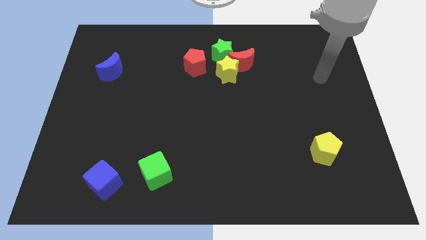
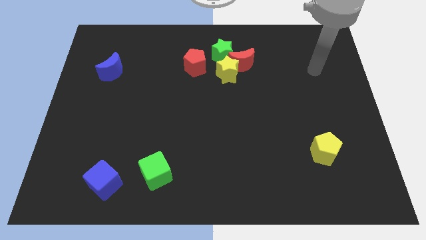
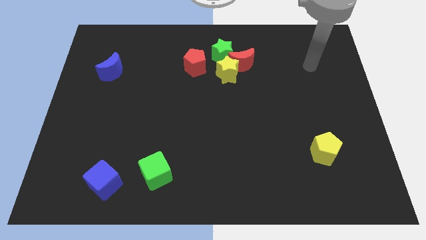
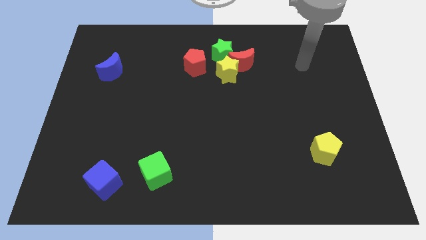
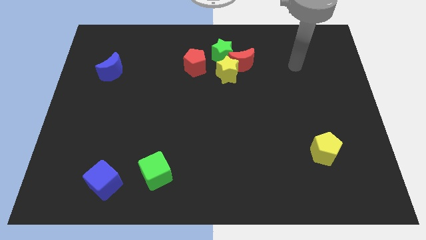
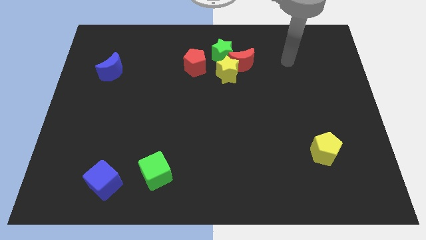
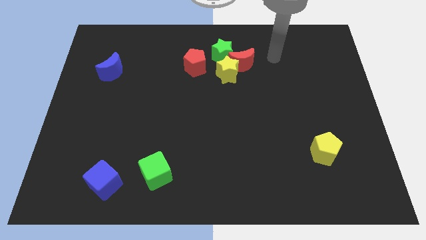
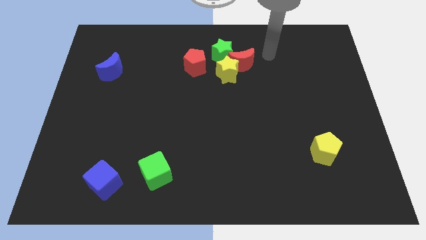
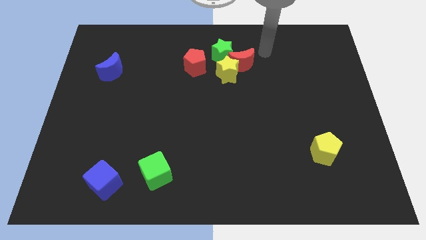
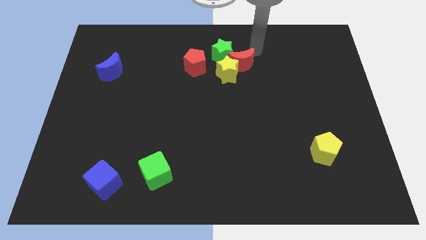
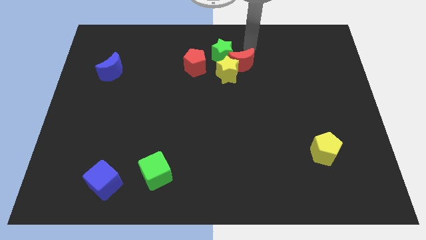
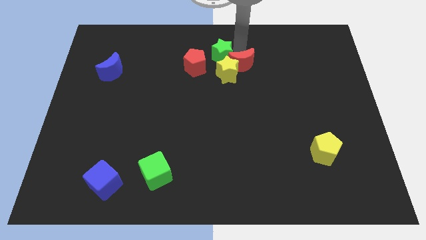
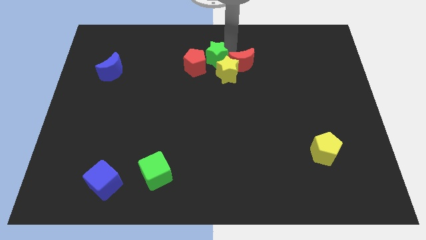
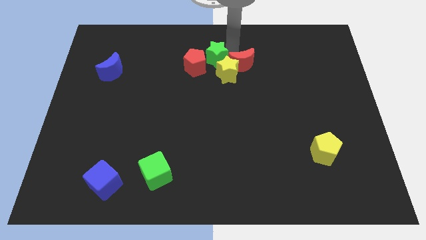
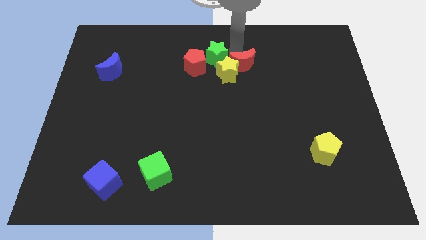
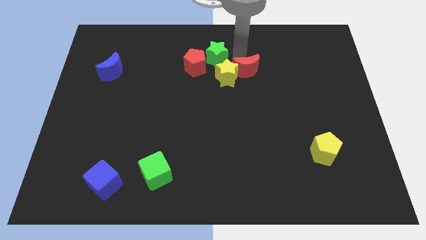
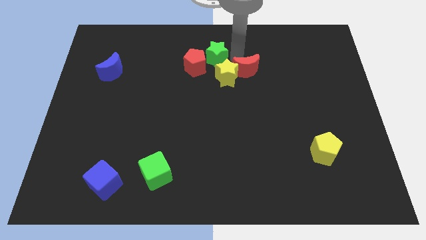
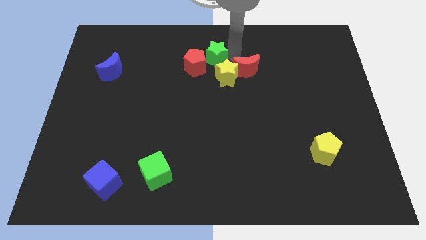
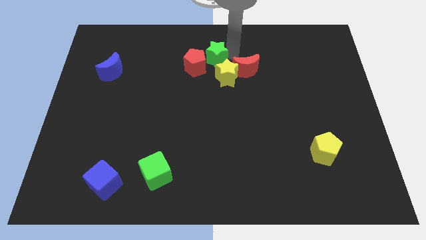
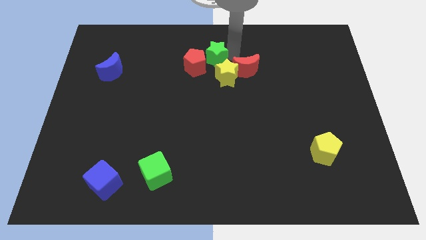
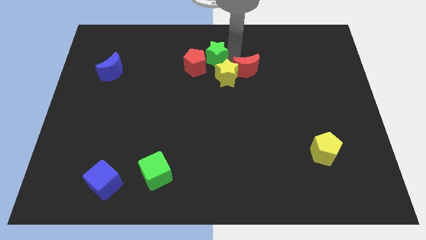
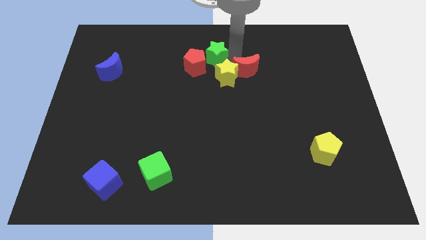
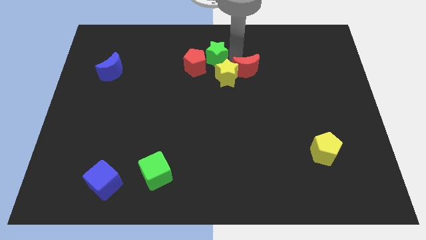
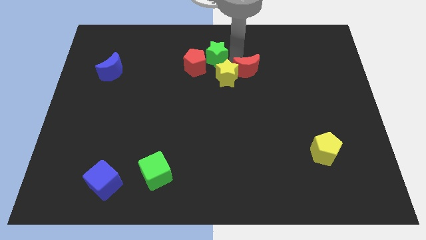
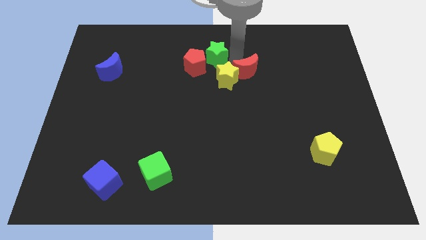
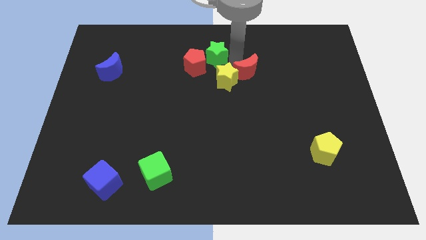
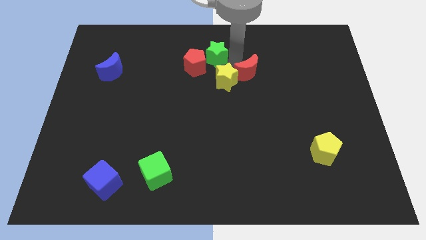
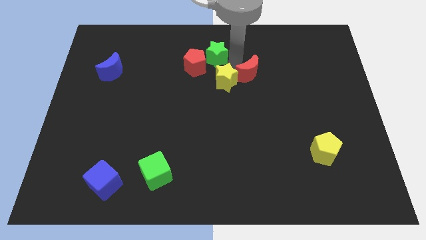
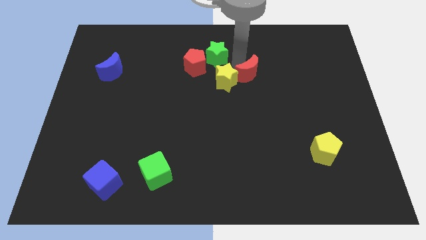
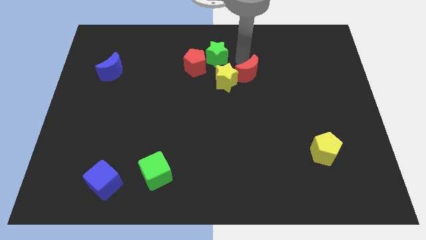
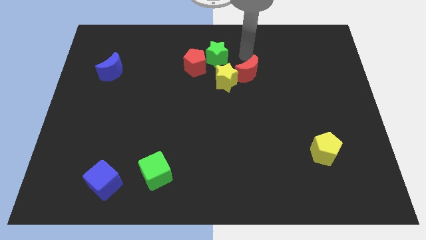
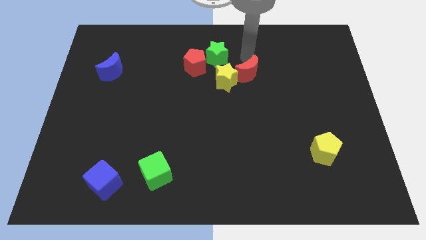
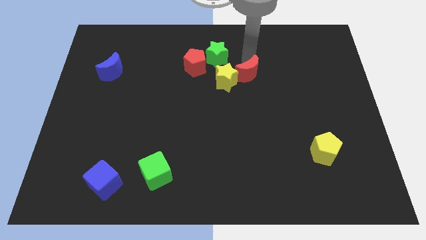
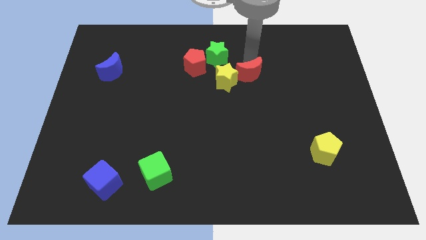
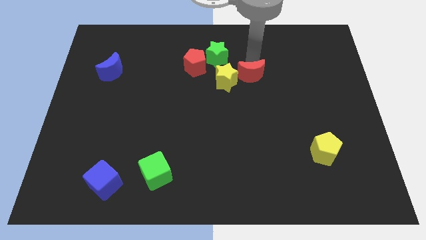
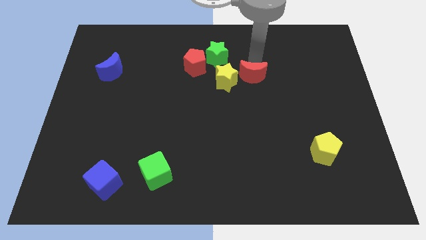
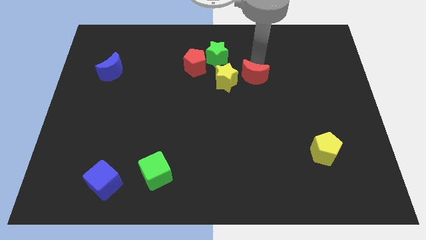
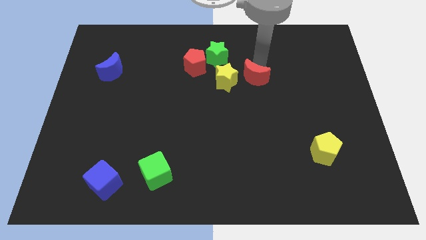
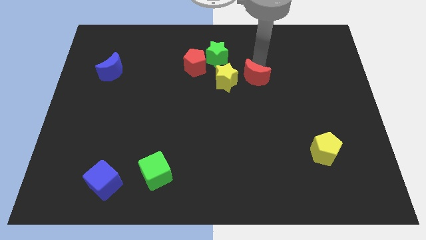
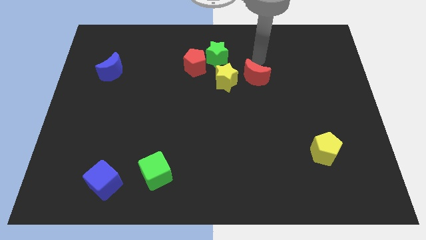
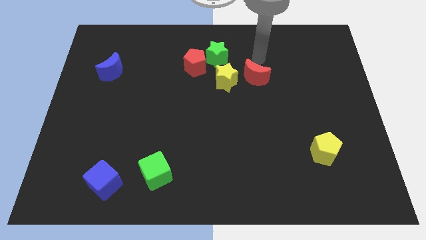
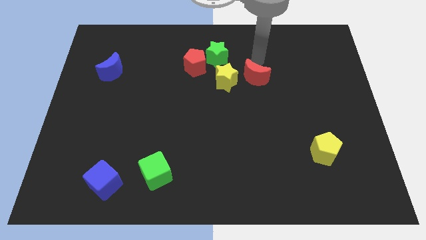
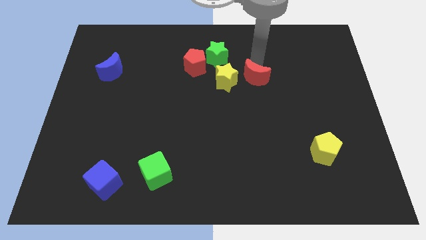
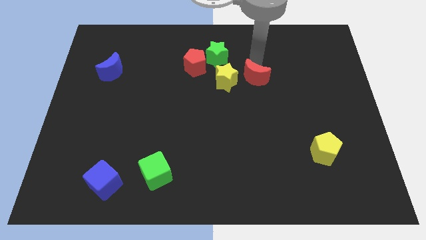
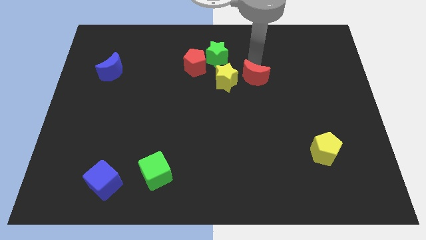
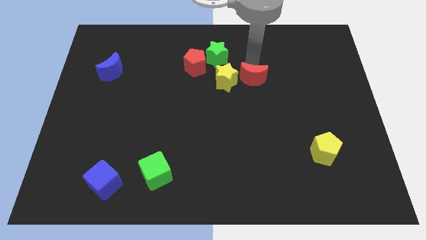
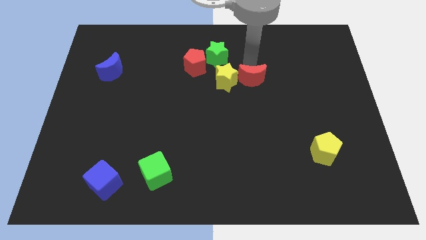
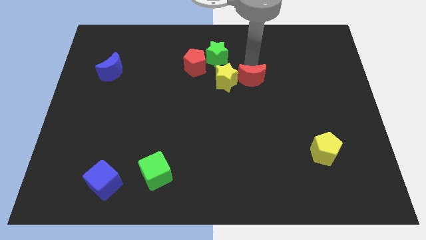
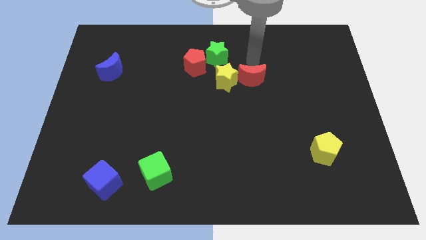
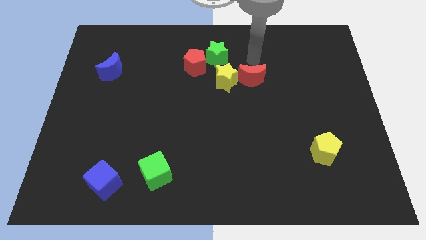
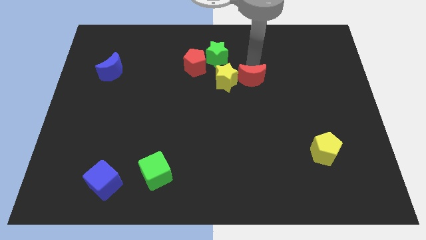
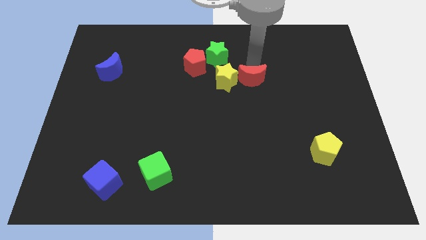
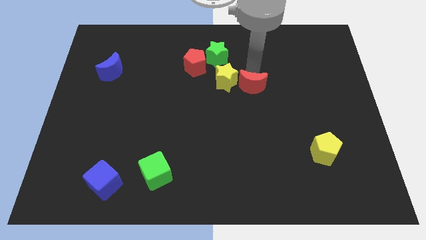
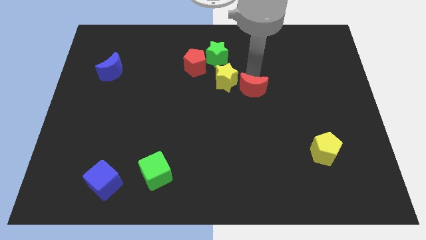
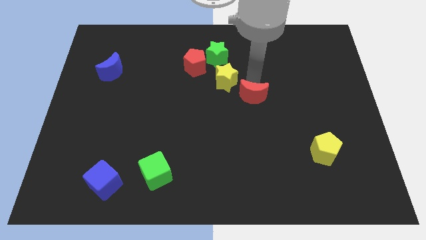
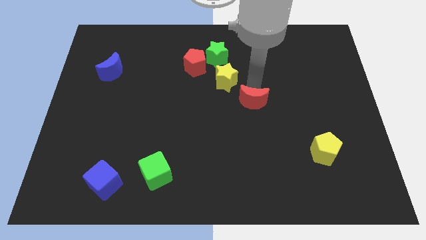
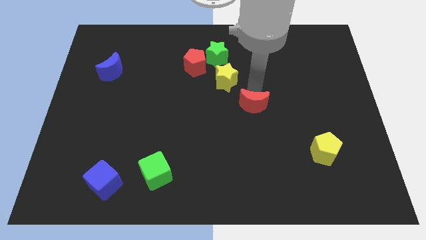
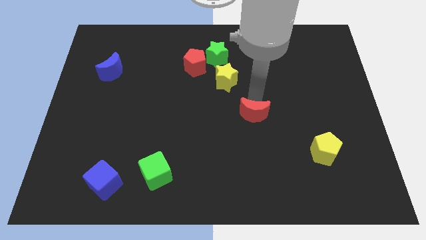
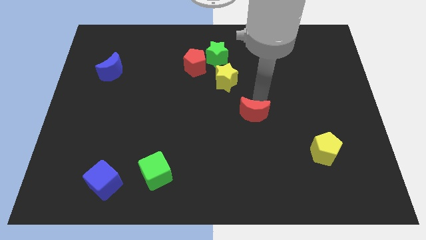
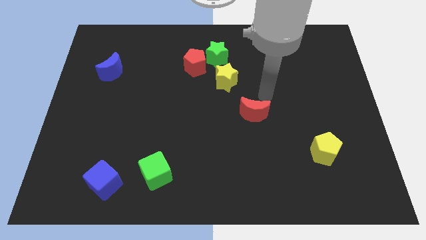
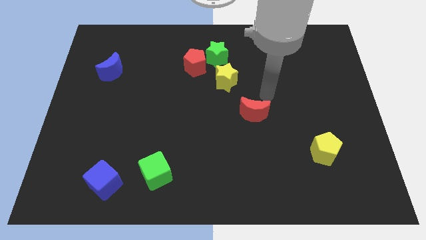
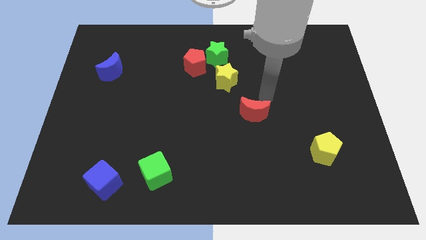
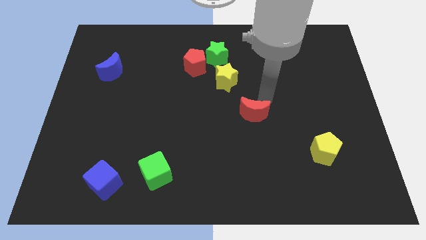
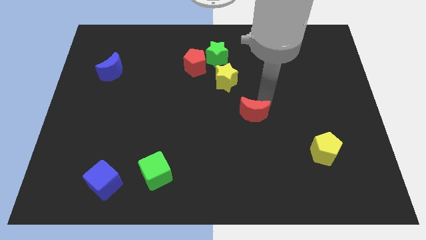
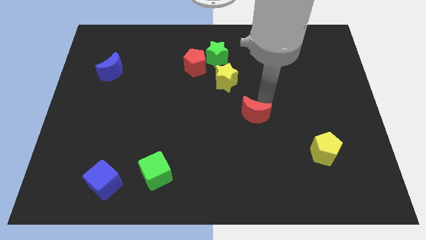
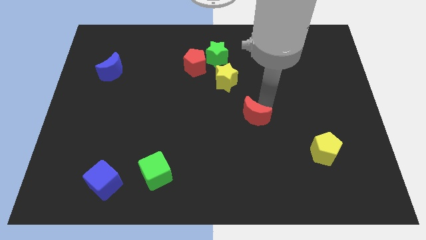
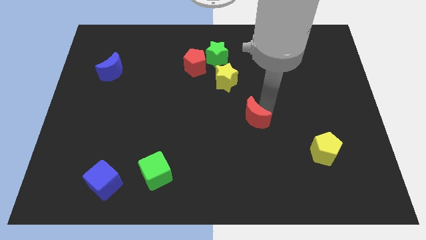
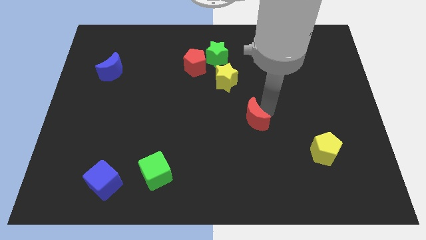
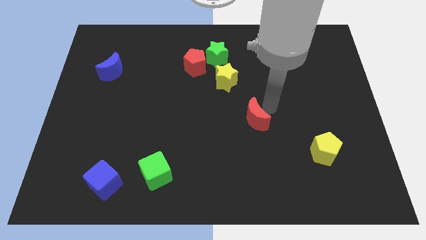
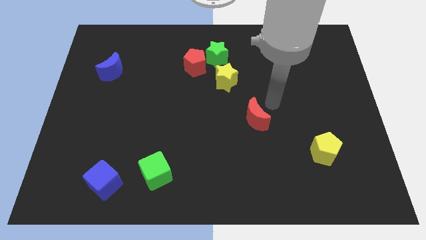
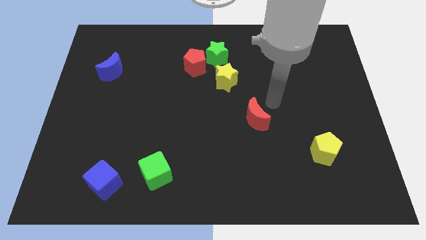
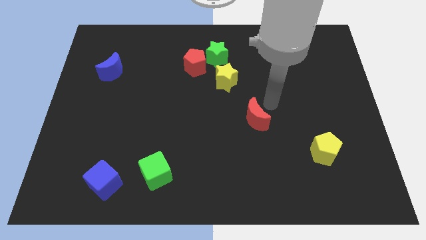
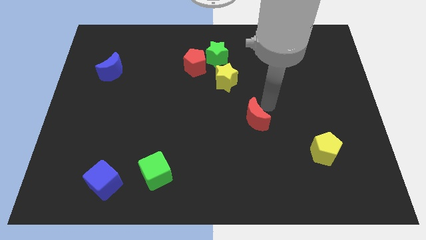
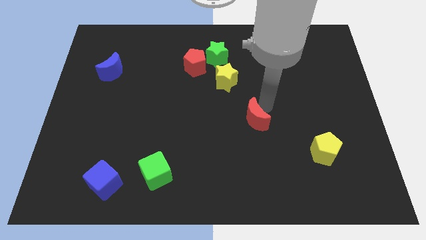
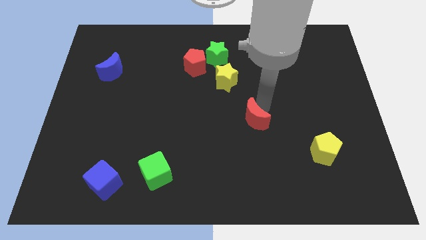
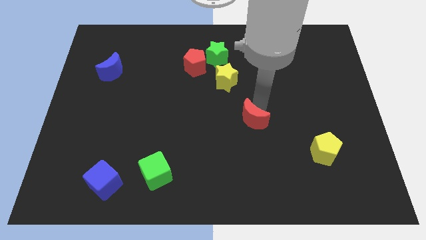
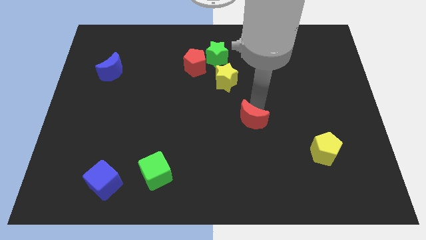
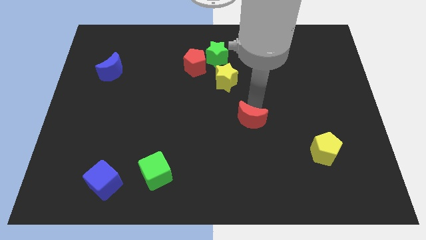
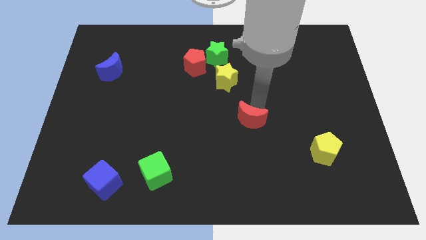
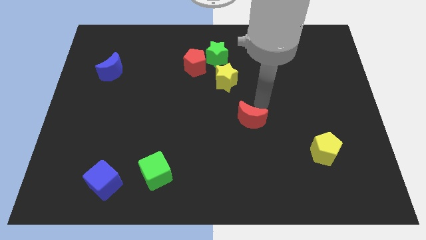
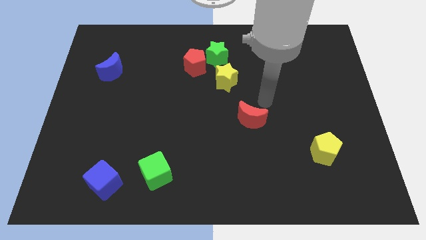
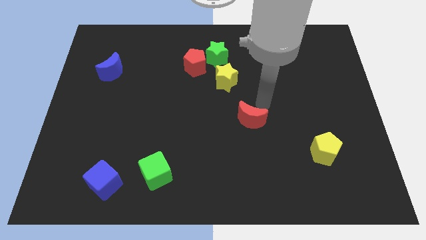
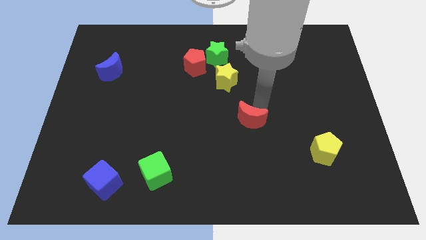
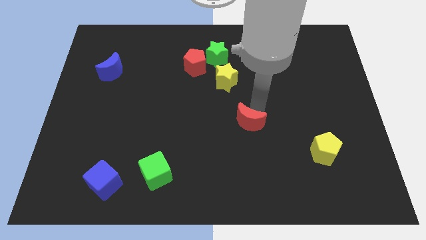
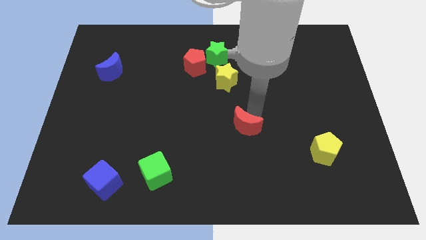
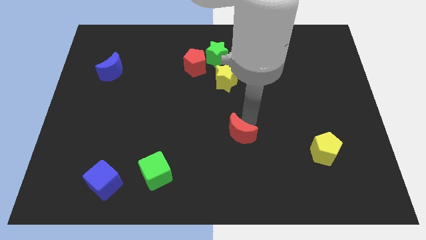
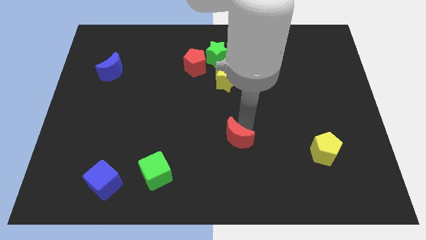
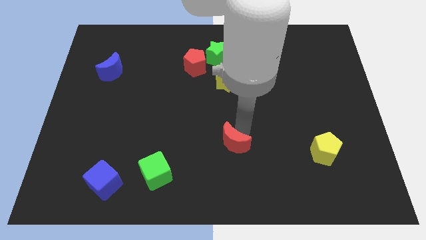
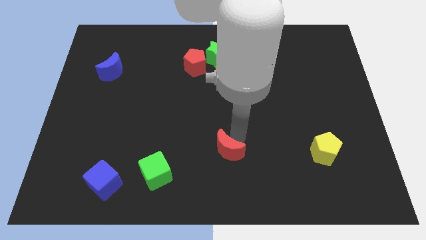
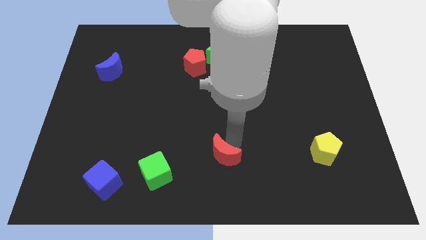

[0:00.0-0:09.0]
put the red moon just right of the green cube
